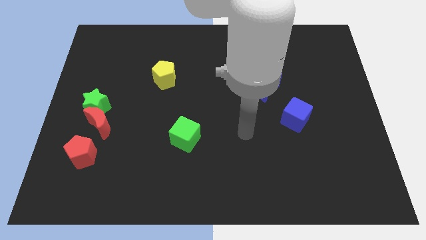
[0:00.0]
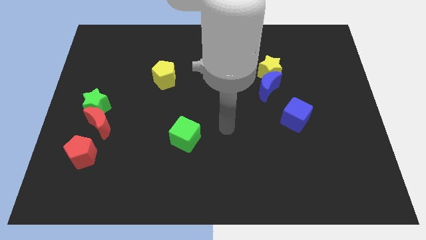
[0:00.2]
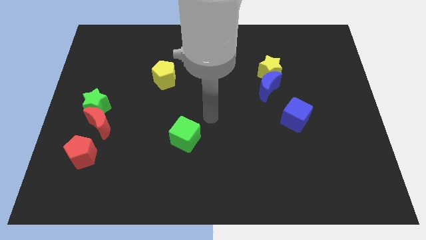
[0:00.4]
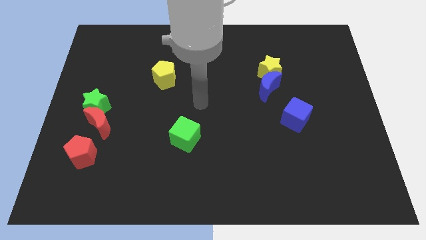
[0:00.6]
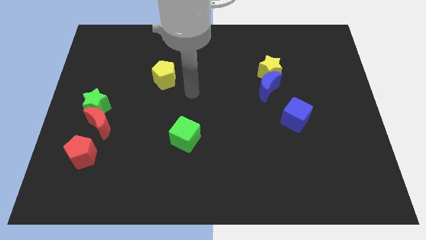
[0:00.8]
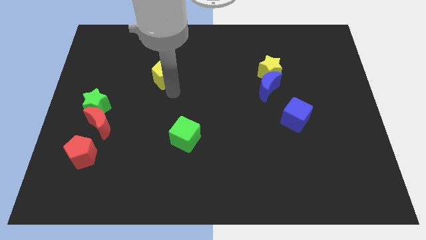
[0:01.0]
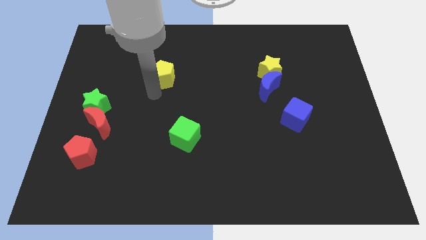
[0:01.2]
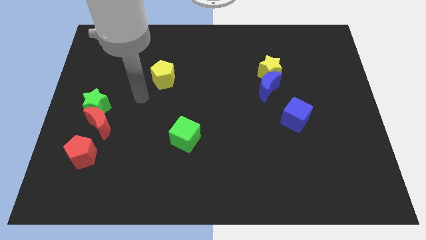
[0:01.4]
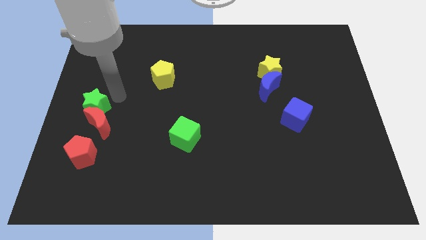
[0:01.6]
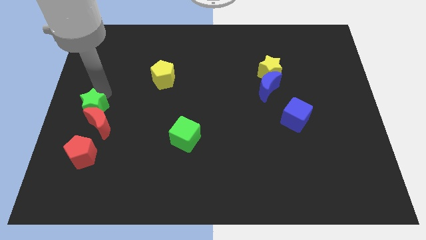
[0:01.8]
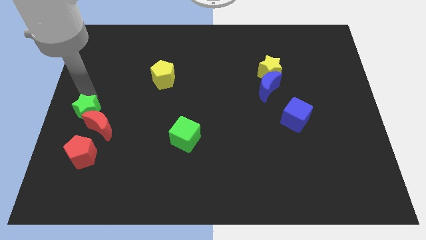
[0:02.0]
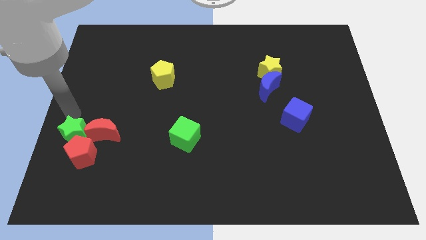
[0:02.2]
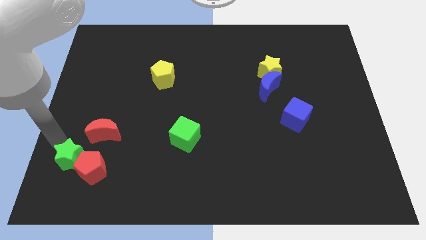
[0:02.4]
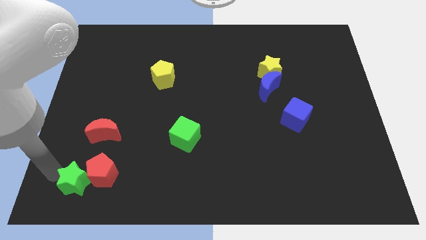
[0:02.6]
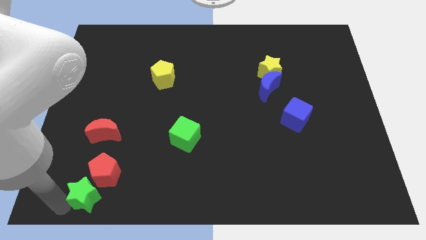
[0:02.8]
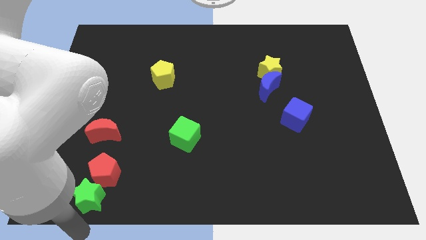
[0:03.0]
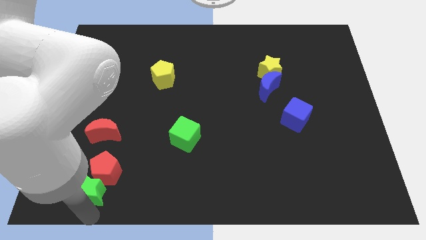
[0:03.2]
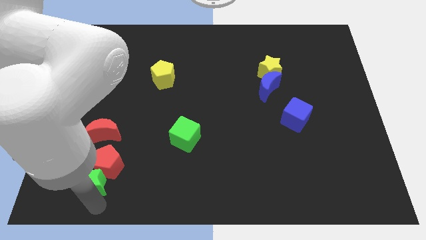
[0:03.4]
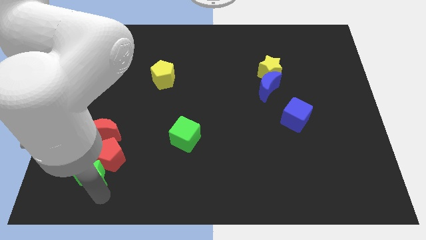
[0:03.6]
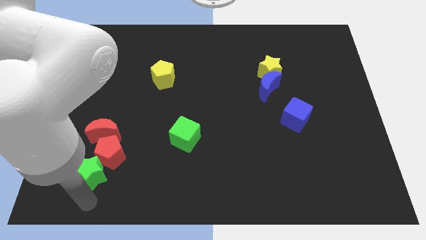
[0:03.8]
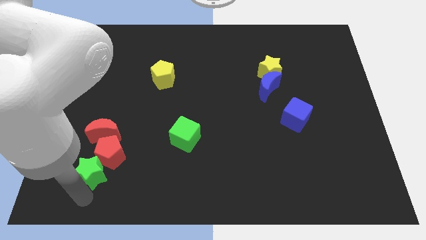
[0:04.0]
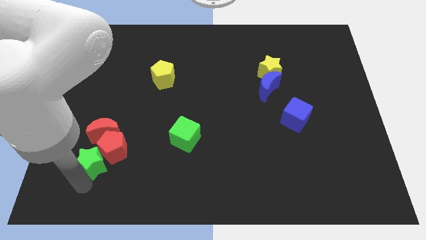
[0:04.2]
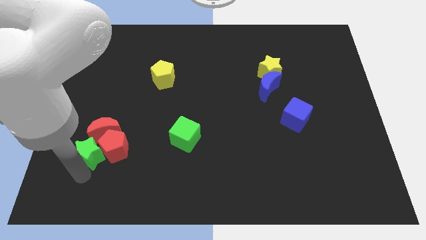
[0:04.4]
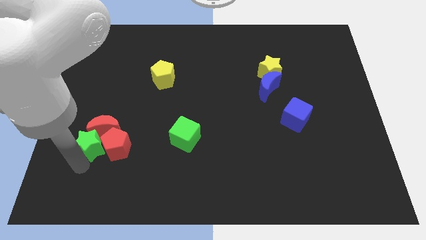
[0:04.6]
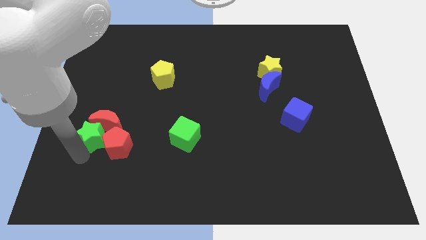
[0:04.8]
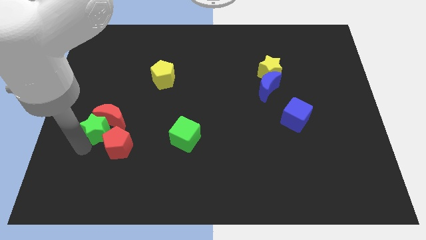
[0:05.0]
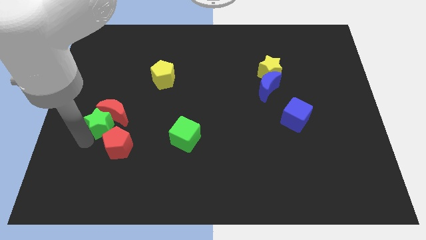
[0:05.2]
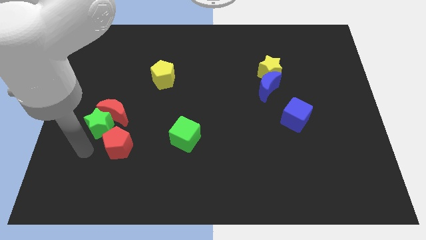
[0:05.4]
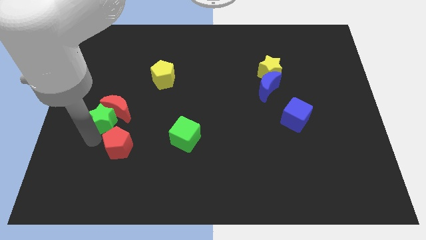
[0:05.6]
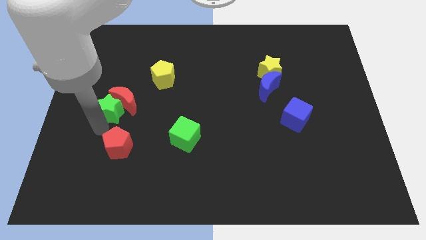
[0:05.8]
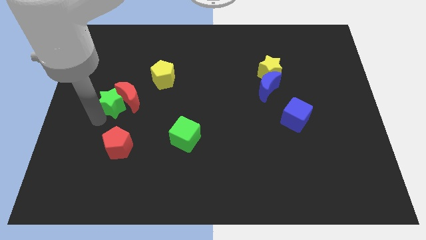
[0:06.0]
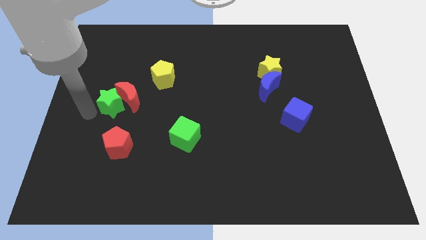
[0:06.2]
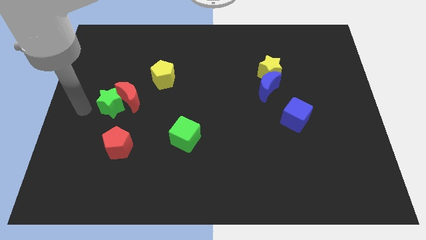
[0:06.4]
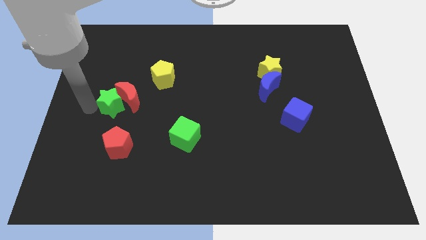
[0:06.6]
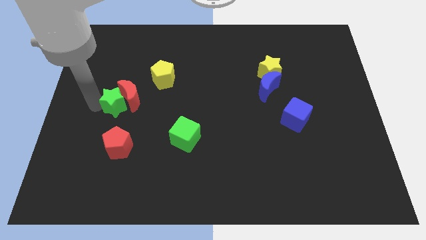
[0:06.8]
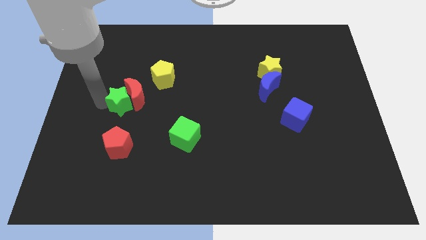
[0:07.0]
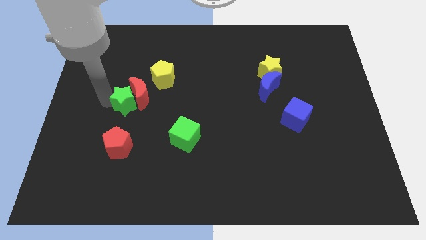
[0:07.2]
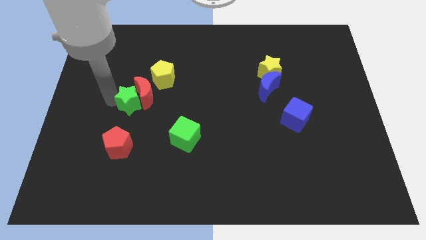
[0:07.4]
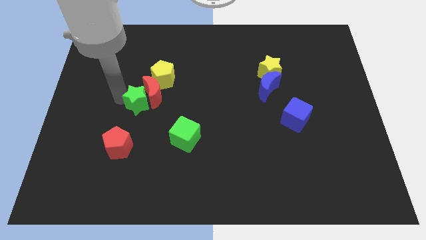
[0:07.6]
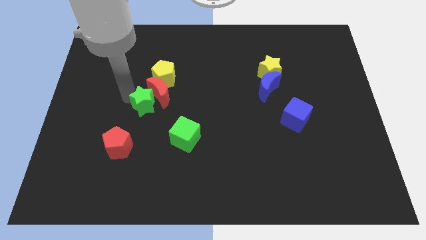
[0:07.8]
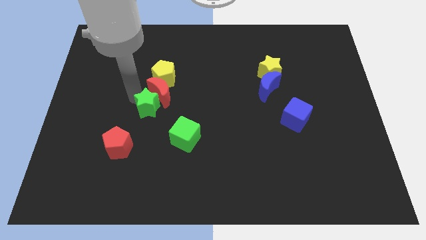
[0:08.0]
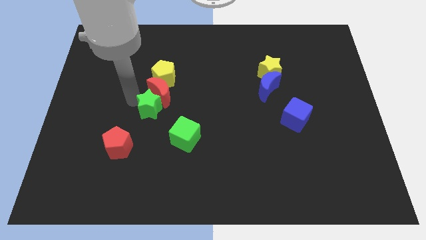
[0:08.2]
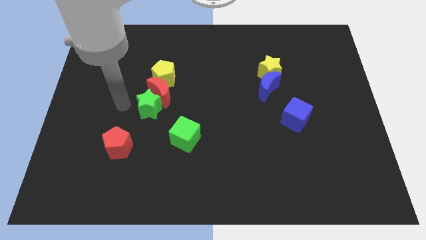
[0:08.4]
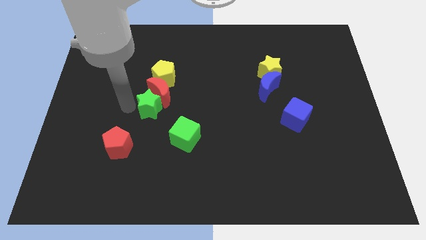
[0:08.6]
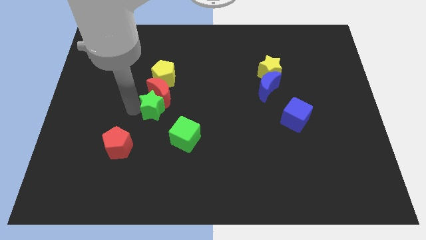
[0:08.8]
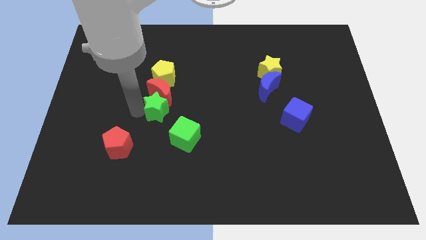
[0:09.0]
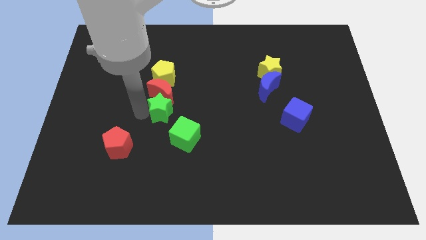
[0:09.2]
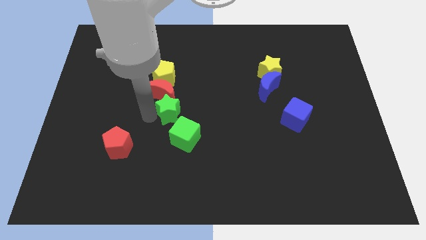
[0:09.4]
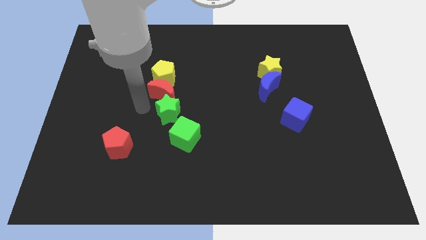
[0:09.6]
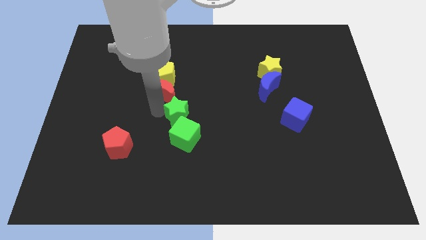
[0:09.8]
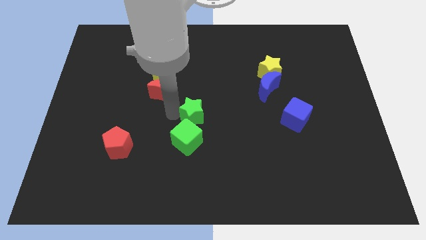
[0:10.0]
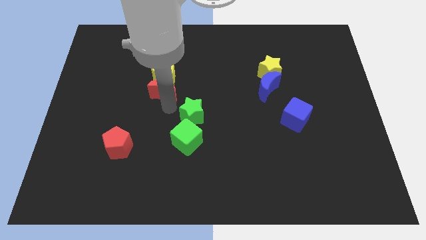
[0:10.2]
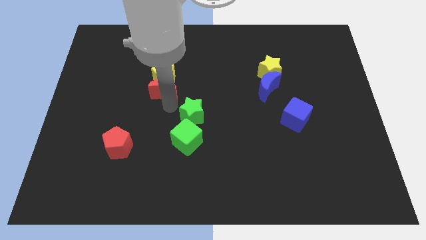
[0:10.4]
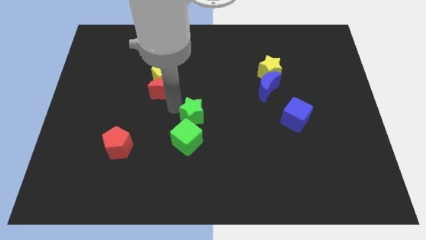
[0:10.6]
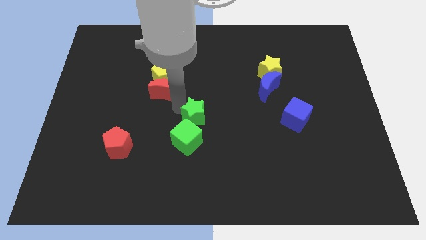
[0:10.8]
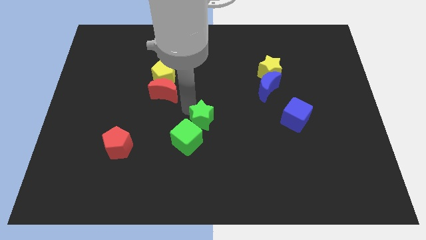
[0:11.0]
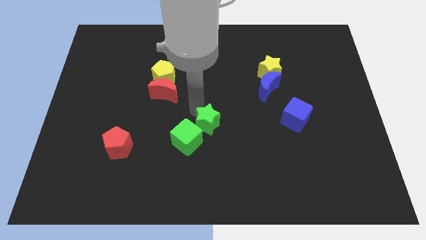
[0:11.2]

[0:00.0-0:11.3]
slide the green star just right of the green cube
